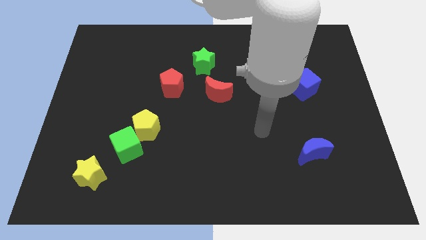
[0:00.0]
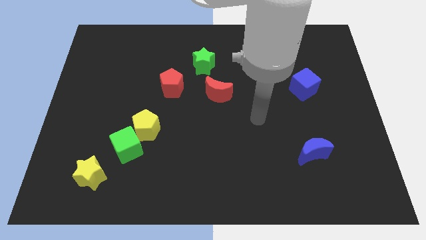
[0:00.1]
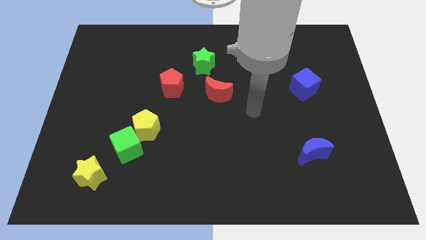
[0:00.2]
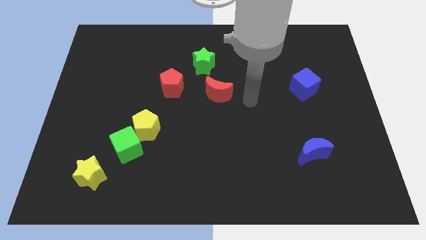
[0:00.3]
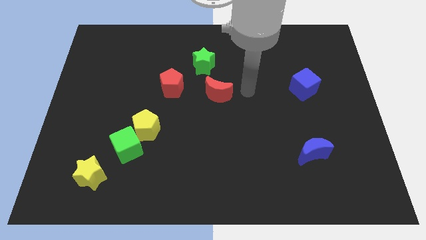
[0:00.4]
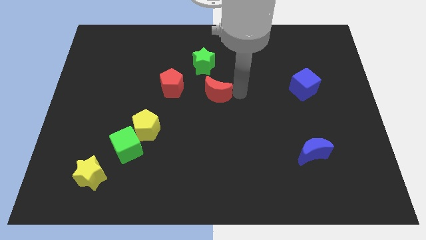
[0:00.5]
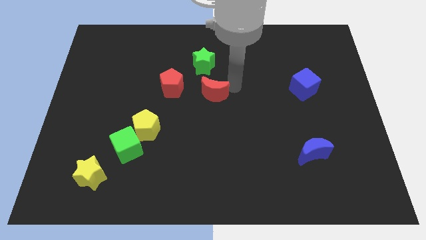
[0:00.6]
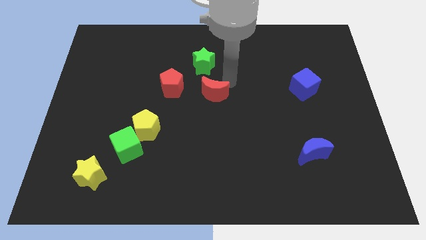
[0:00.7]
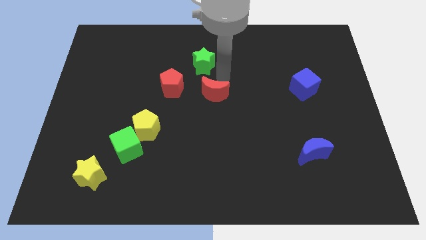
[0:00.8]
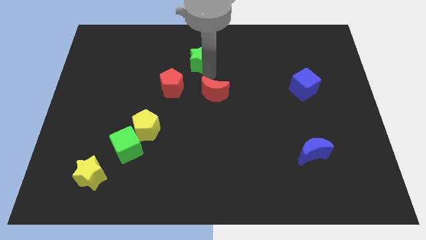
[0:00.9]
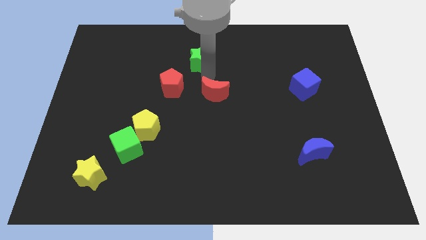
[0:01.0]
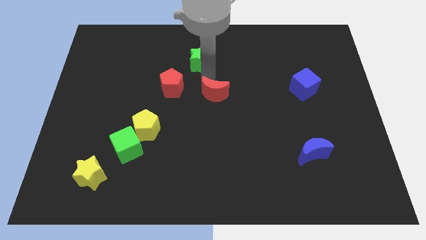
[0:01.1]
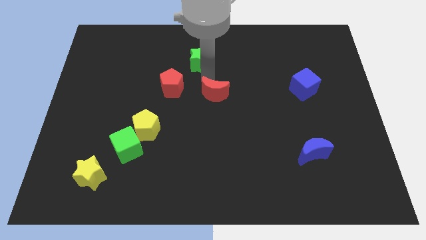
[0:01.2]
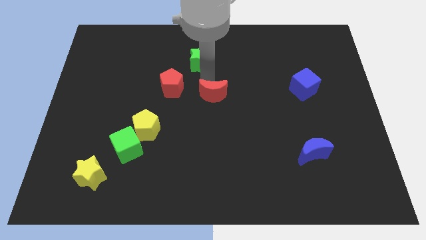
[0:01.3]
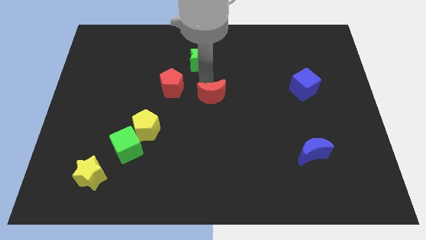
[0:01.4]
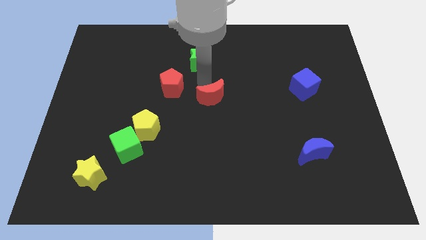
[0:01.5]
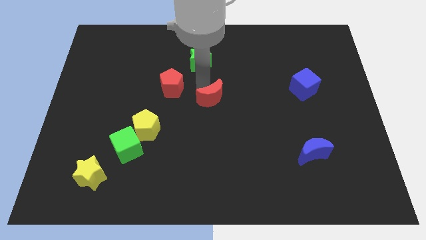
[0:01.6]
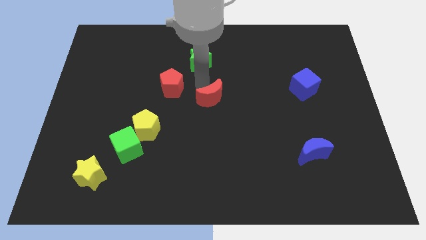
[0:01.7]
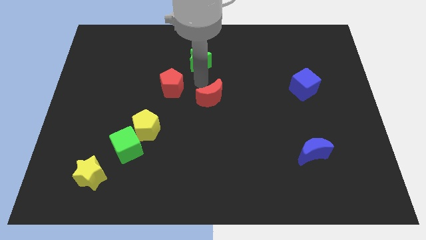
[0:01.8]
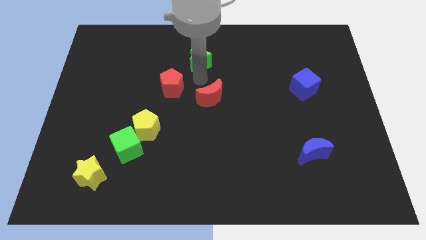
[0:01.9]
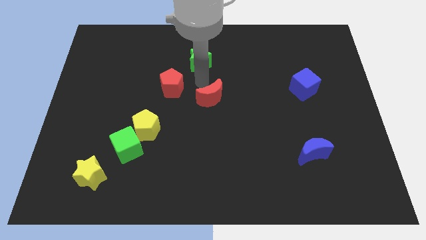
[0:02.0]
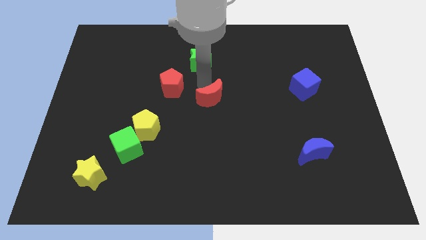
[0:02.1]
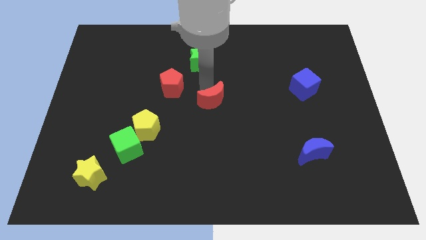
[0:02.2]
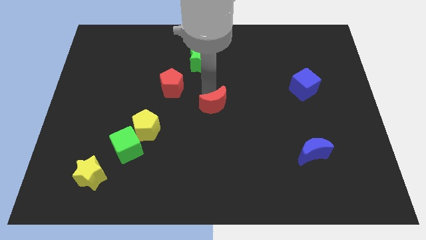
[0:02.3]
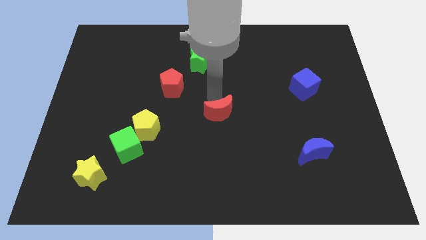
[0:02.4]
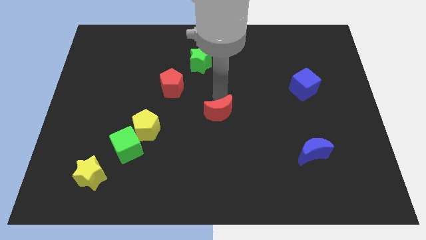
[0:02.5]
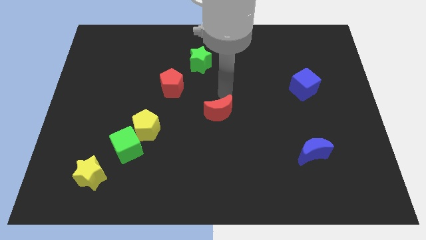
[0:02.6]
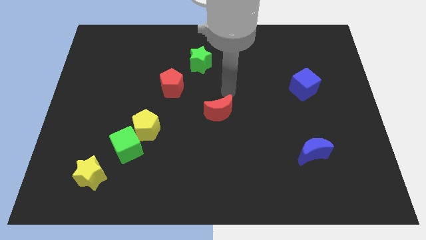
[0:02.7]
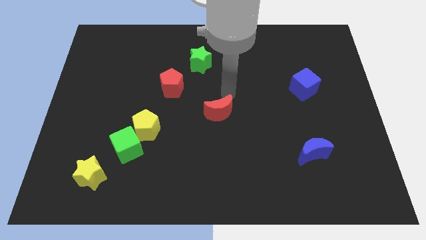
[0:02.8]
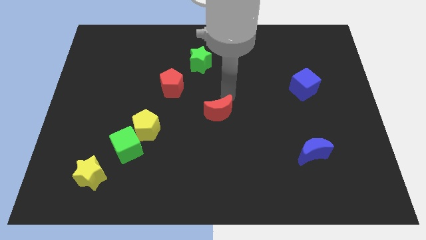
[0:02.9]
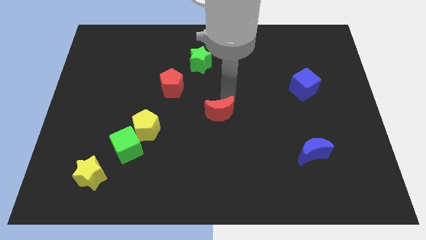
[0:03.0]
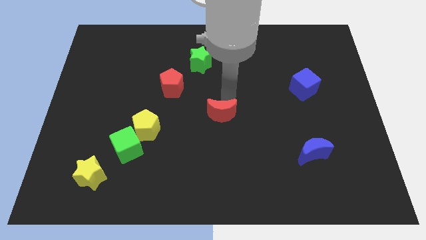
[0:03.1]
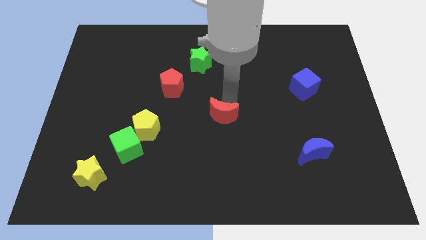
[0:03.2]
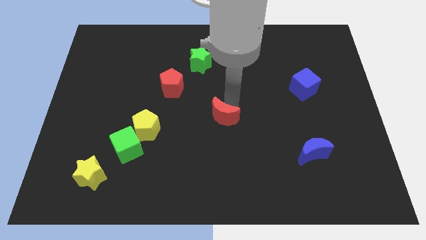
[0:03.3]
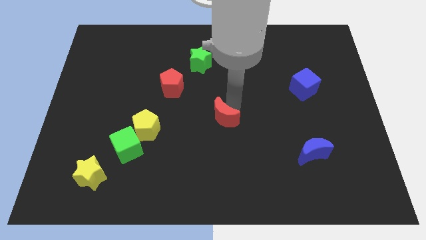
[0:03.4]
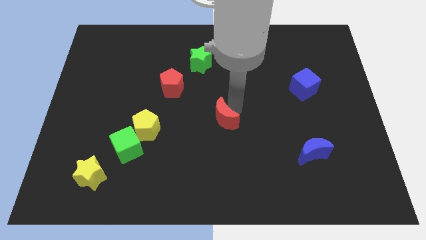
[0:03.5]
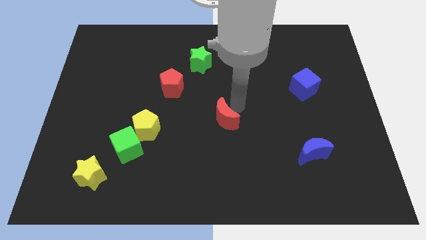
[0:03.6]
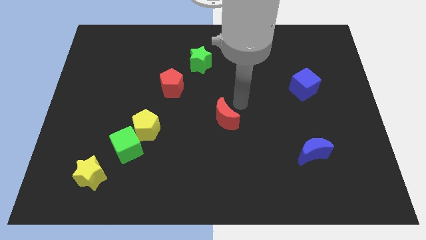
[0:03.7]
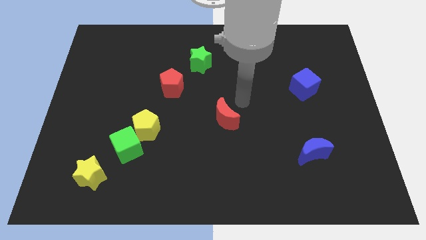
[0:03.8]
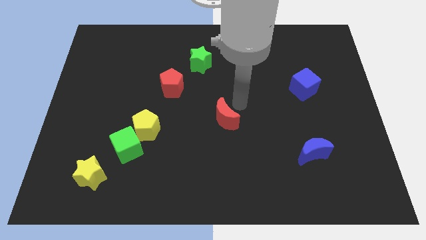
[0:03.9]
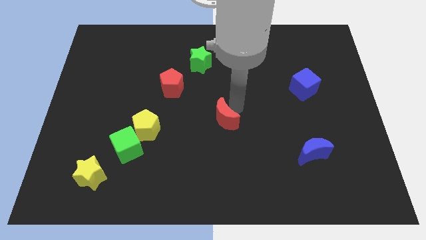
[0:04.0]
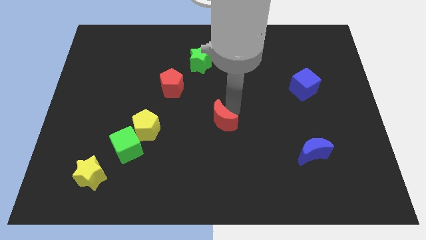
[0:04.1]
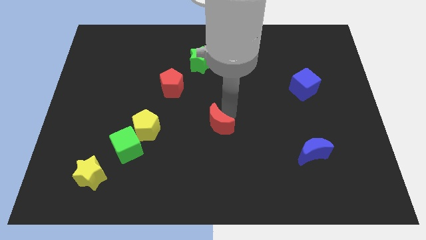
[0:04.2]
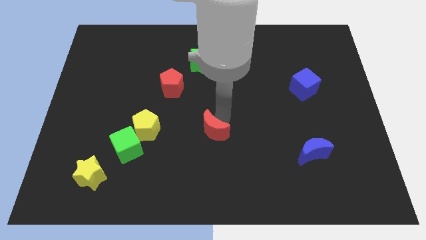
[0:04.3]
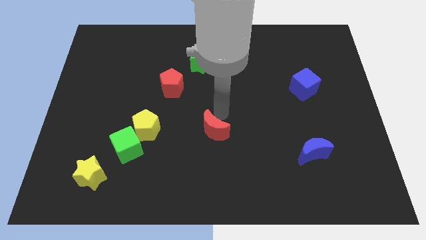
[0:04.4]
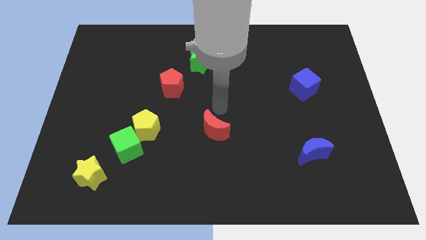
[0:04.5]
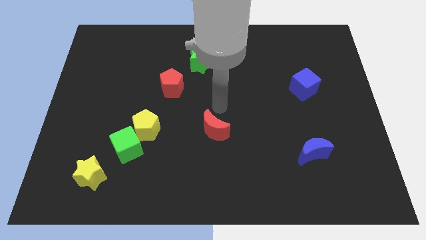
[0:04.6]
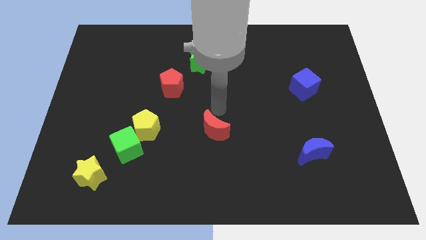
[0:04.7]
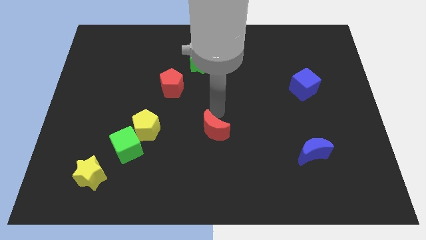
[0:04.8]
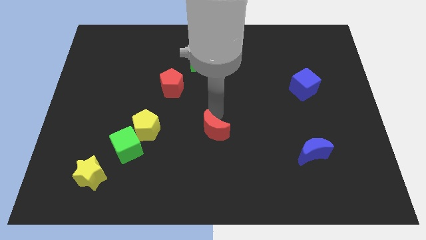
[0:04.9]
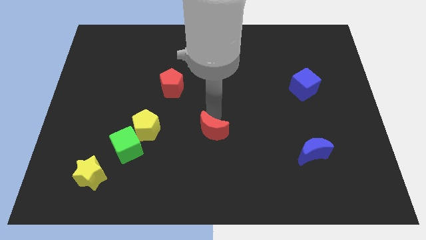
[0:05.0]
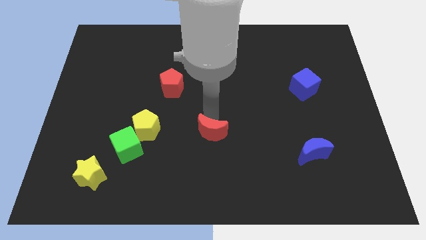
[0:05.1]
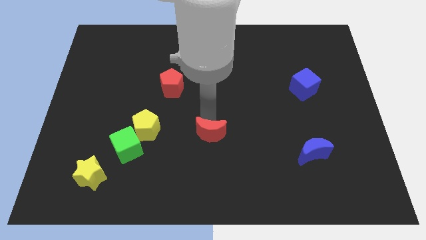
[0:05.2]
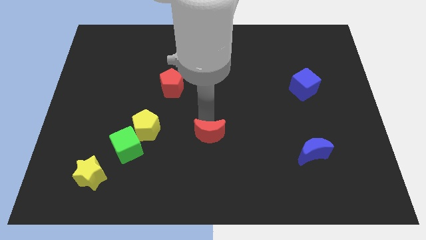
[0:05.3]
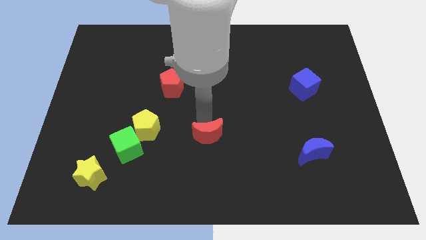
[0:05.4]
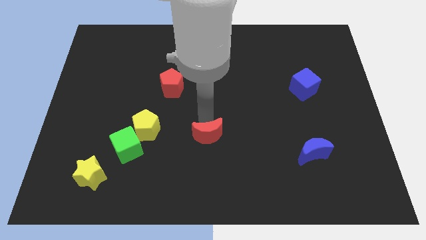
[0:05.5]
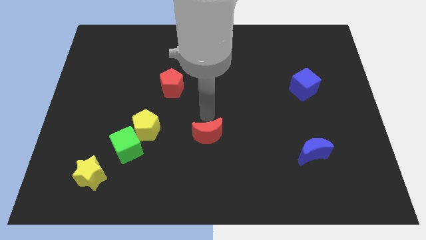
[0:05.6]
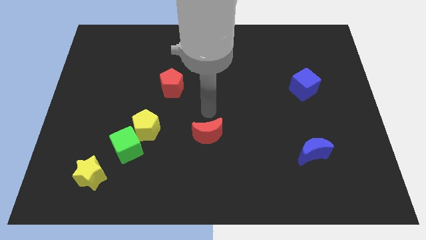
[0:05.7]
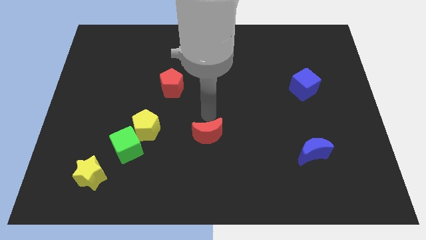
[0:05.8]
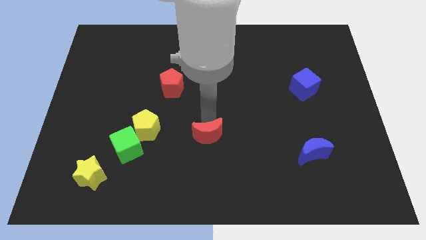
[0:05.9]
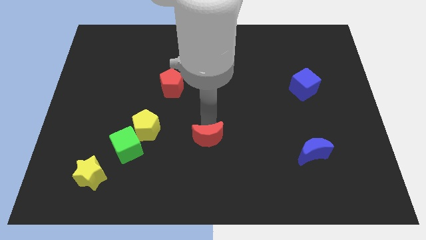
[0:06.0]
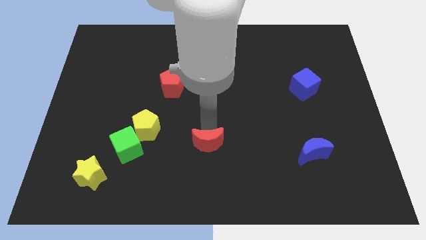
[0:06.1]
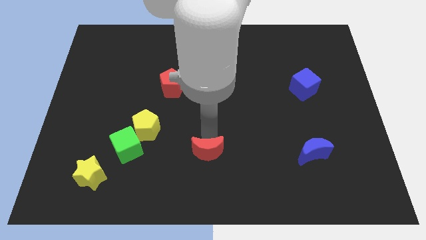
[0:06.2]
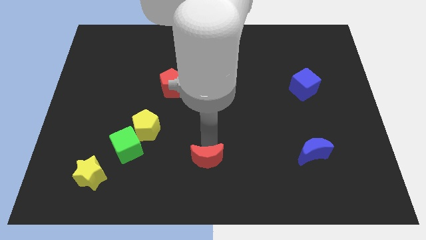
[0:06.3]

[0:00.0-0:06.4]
move the red moon to the bottom side

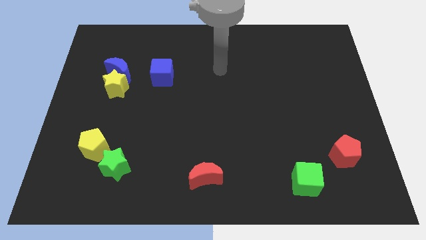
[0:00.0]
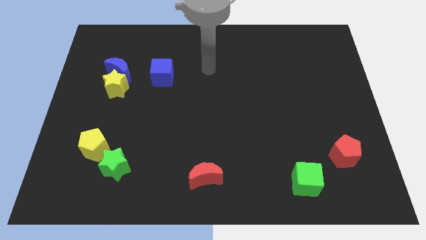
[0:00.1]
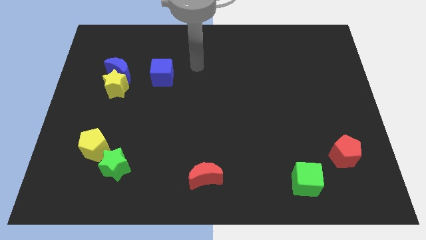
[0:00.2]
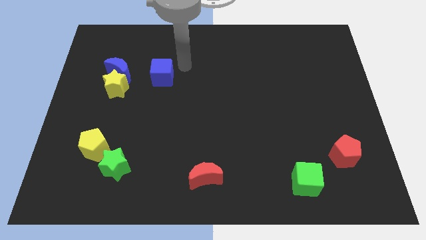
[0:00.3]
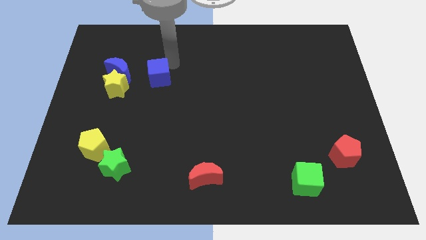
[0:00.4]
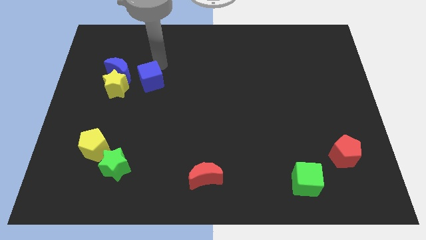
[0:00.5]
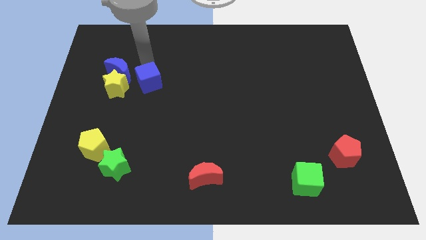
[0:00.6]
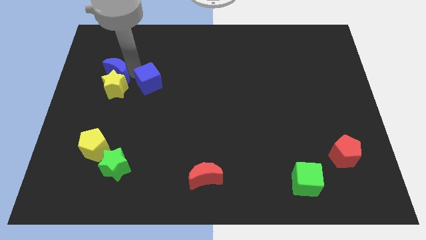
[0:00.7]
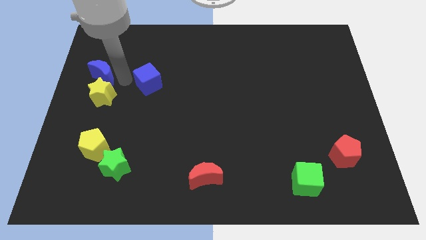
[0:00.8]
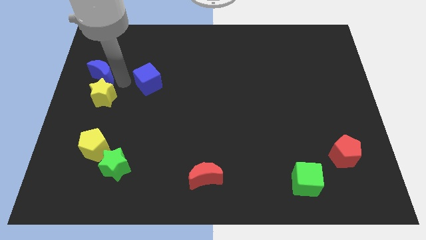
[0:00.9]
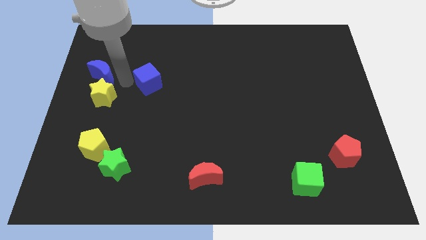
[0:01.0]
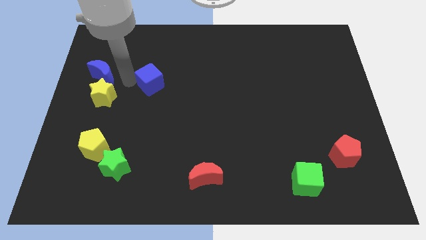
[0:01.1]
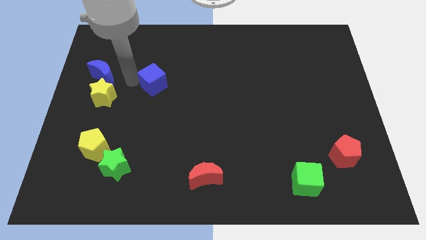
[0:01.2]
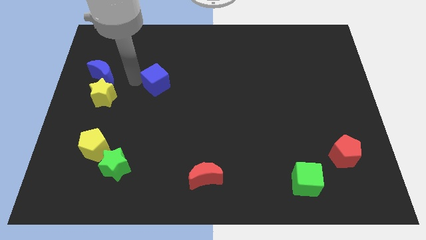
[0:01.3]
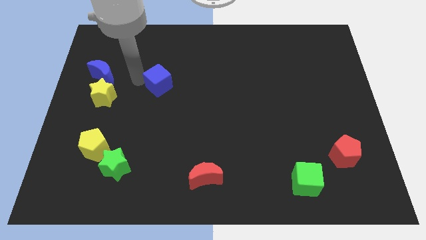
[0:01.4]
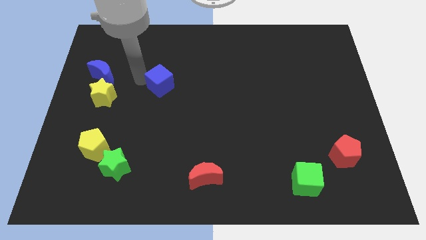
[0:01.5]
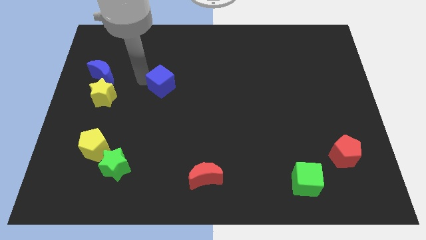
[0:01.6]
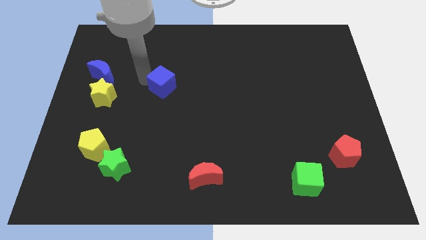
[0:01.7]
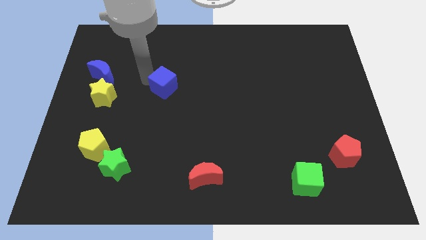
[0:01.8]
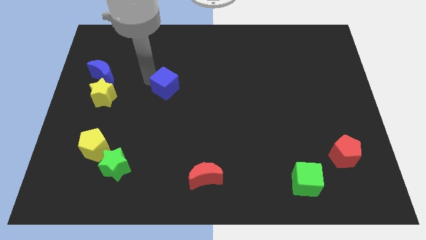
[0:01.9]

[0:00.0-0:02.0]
put the blue cube to the middle of the board
